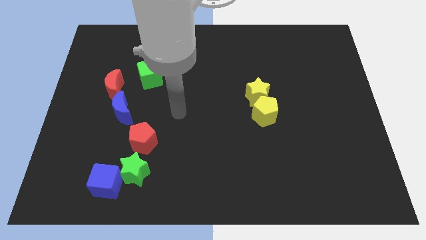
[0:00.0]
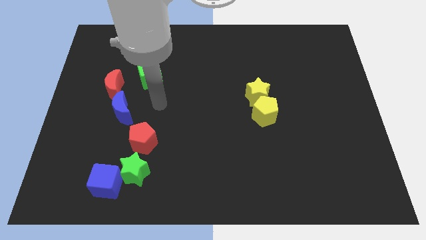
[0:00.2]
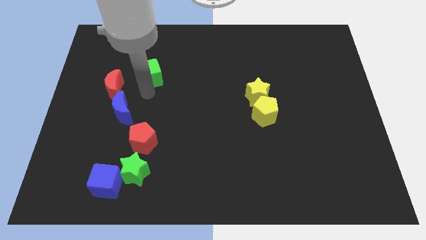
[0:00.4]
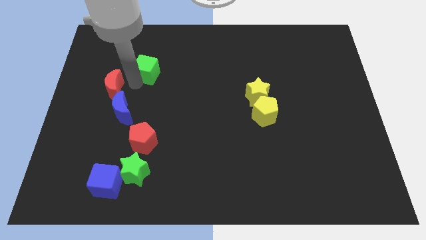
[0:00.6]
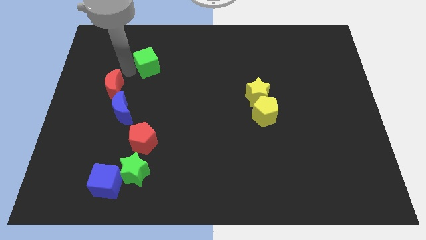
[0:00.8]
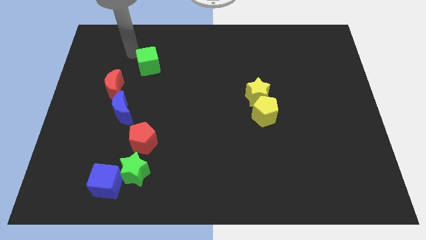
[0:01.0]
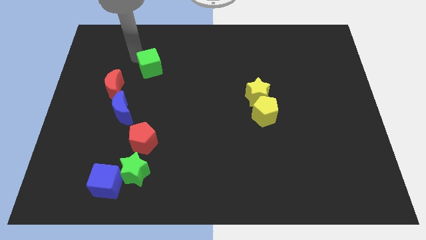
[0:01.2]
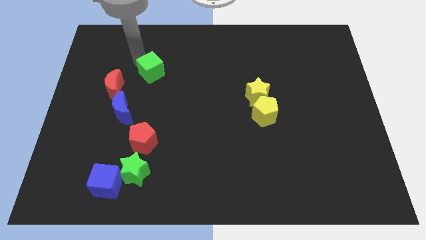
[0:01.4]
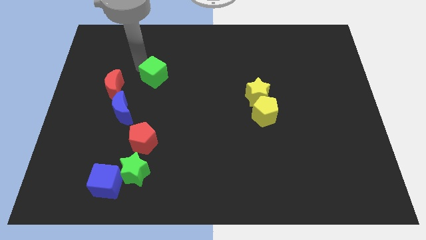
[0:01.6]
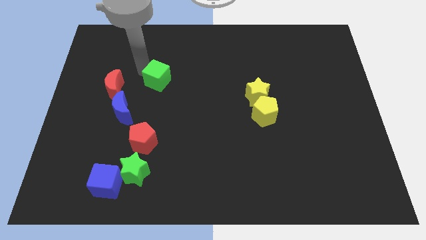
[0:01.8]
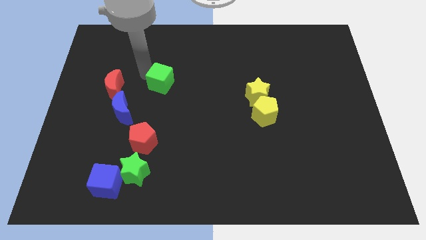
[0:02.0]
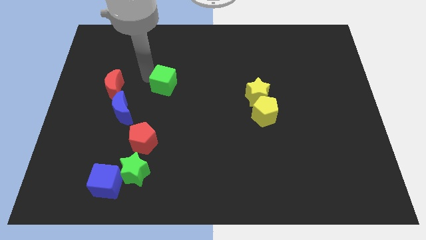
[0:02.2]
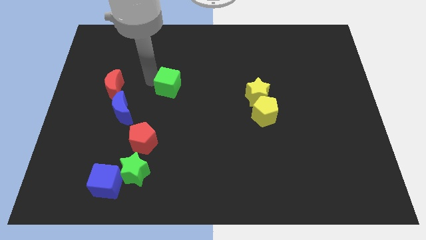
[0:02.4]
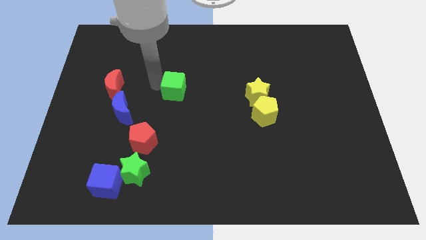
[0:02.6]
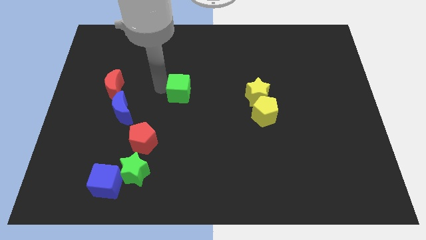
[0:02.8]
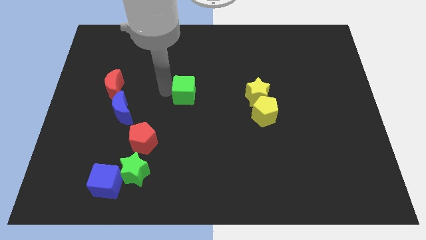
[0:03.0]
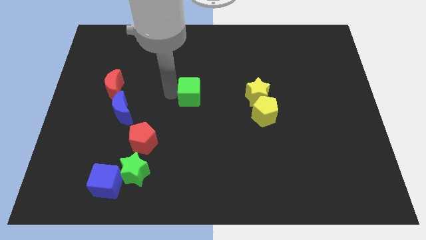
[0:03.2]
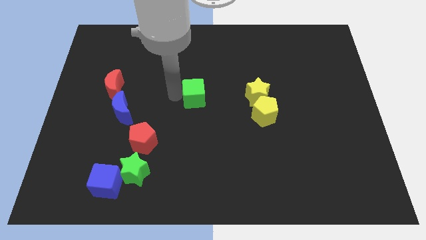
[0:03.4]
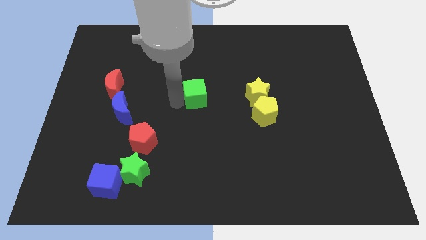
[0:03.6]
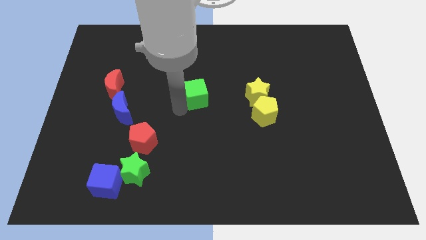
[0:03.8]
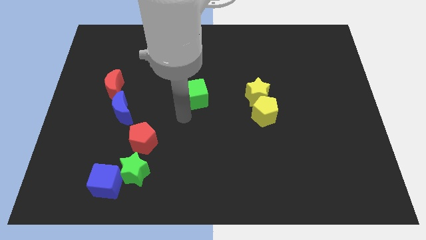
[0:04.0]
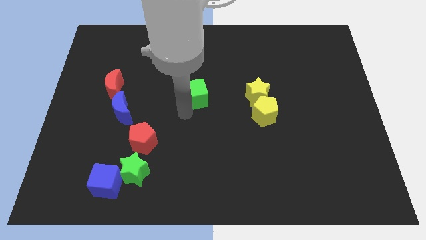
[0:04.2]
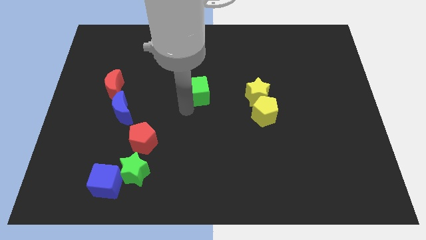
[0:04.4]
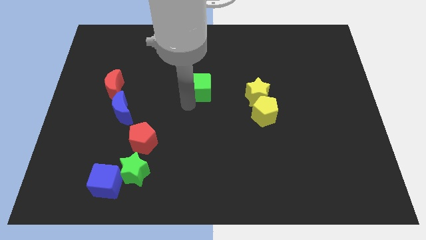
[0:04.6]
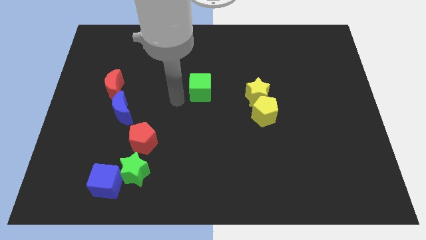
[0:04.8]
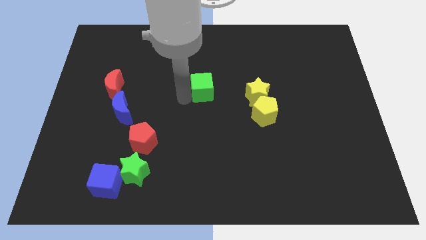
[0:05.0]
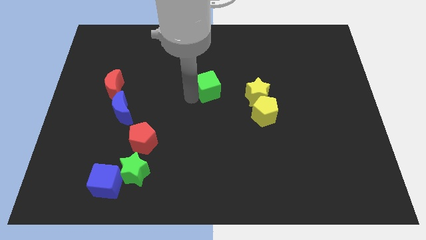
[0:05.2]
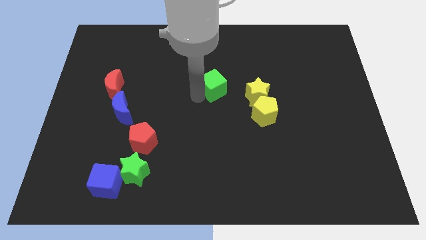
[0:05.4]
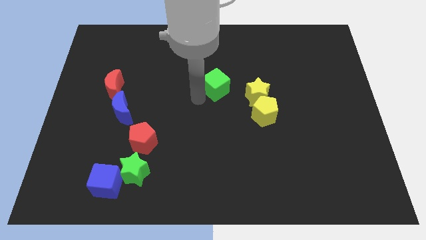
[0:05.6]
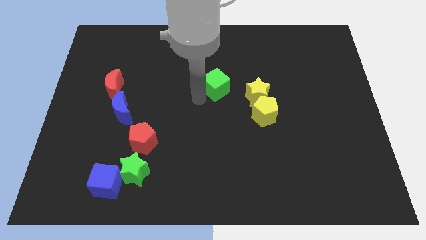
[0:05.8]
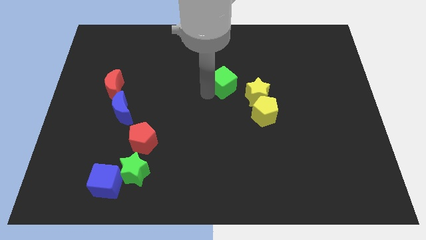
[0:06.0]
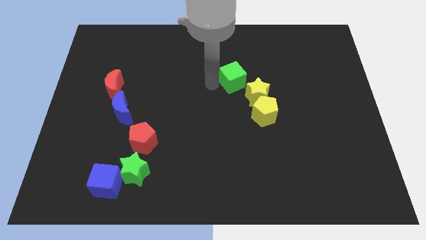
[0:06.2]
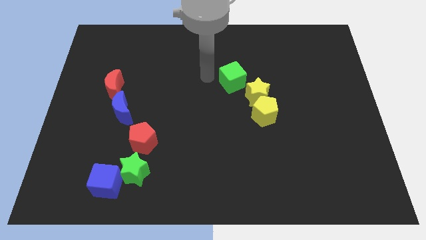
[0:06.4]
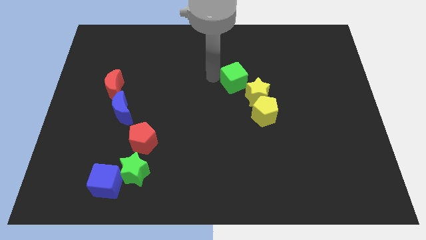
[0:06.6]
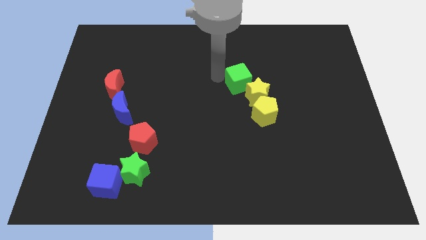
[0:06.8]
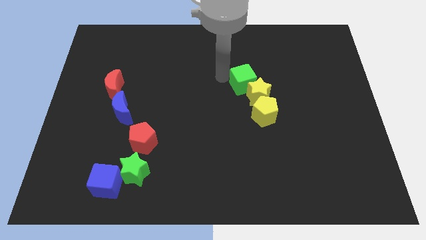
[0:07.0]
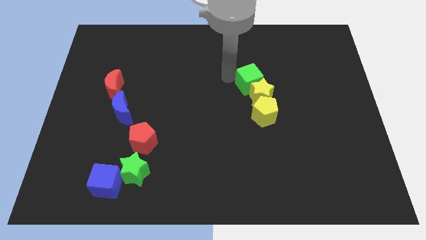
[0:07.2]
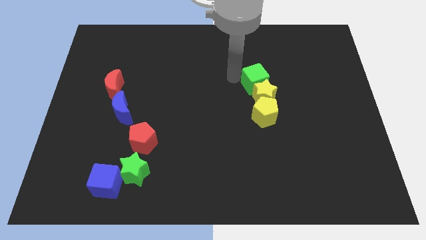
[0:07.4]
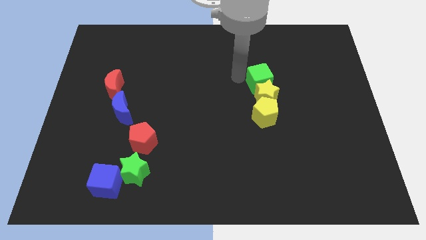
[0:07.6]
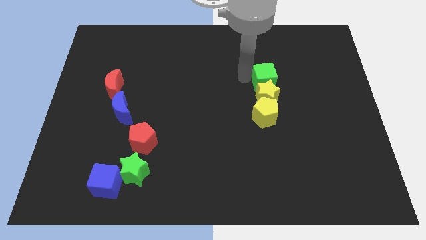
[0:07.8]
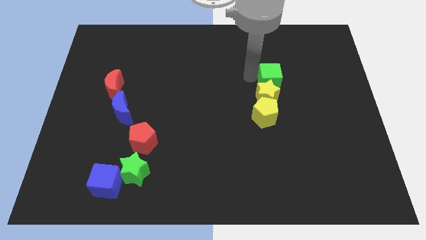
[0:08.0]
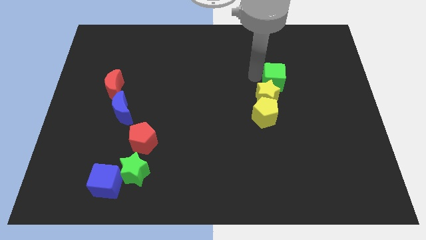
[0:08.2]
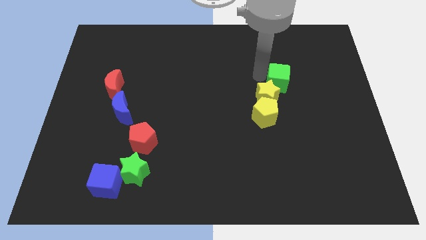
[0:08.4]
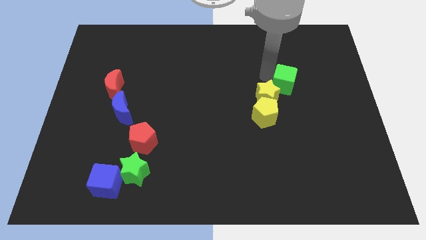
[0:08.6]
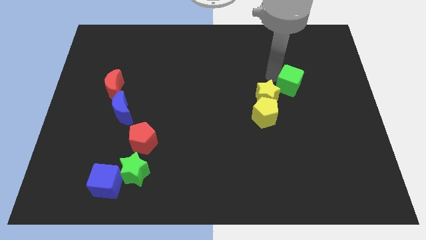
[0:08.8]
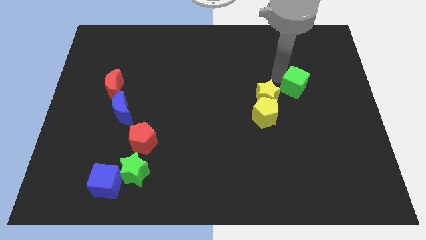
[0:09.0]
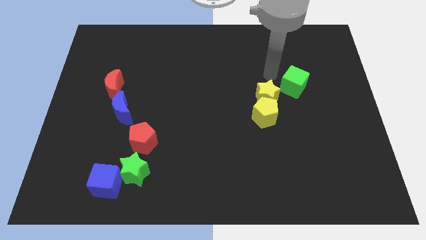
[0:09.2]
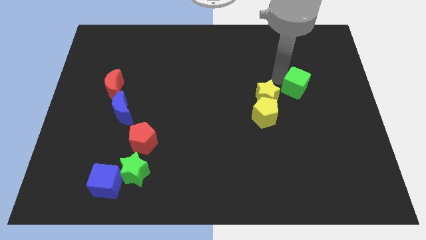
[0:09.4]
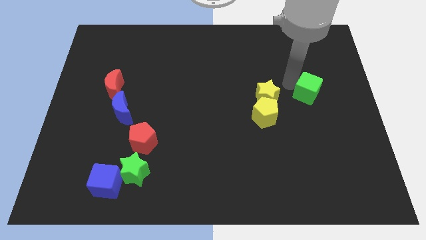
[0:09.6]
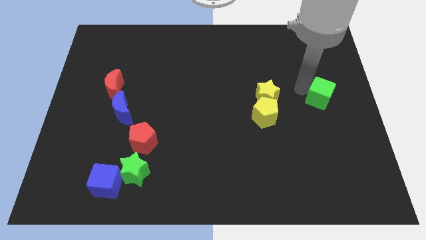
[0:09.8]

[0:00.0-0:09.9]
move the green cube to the right side of the board

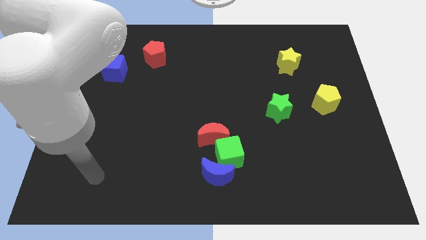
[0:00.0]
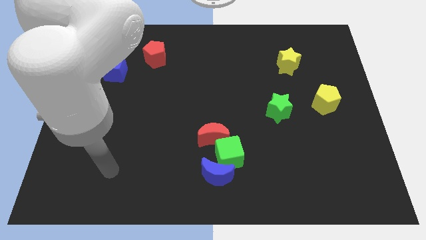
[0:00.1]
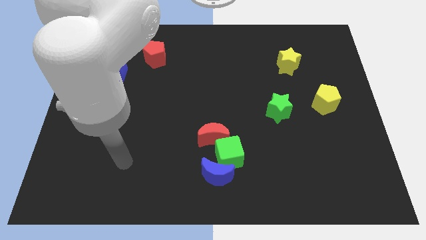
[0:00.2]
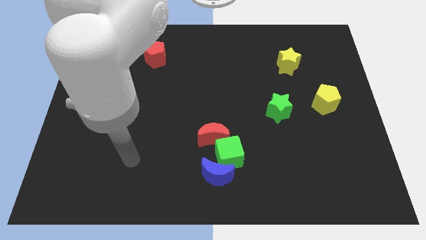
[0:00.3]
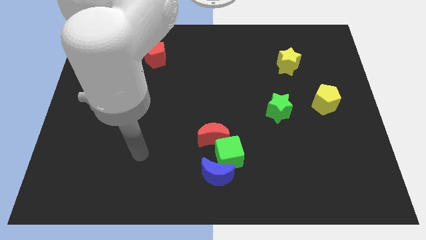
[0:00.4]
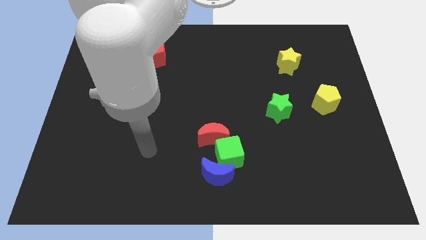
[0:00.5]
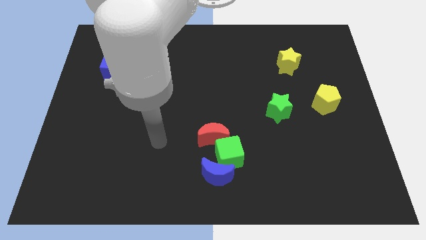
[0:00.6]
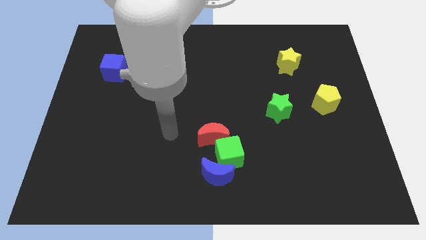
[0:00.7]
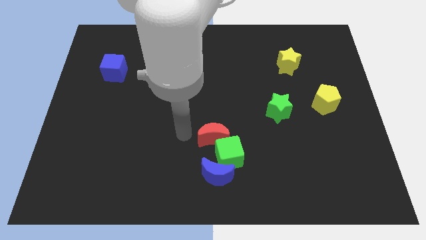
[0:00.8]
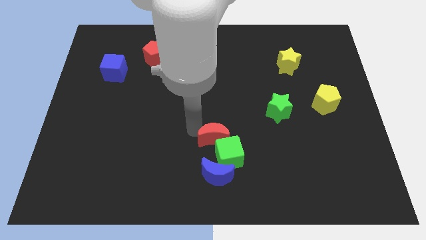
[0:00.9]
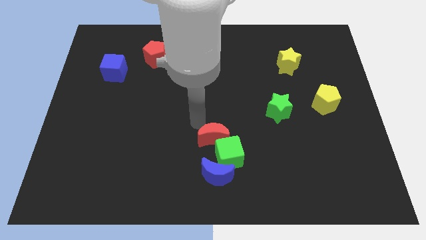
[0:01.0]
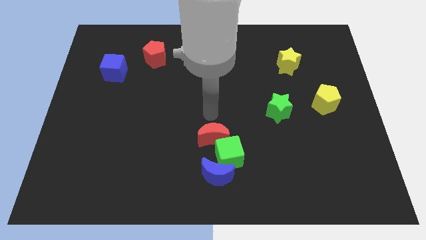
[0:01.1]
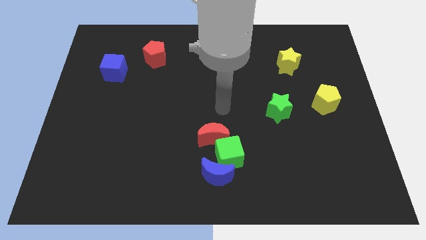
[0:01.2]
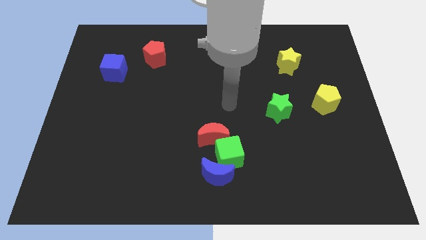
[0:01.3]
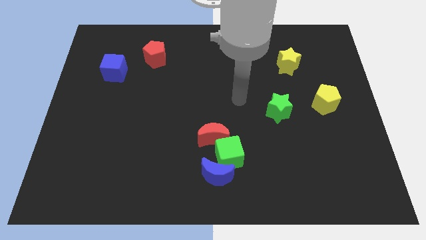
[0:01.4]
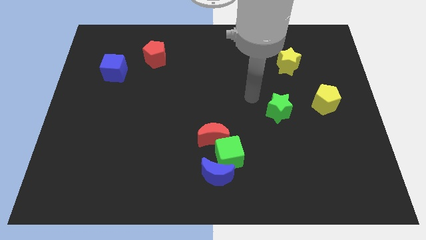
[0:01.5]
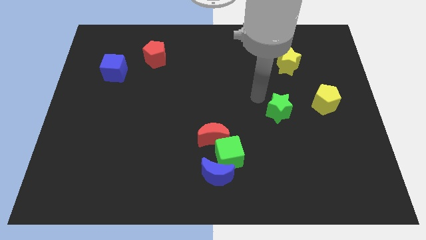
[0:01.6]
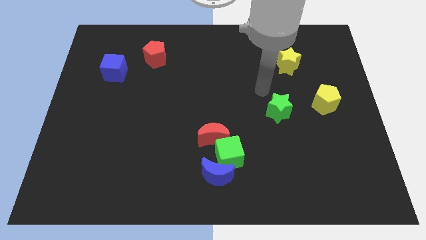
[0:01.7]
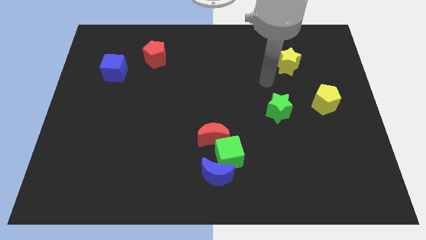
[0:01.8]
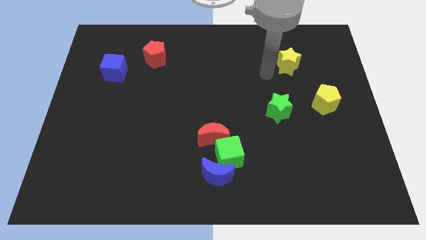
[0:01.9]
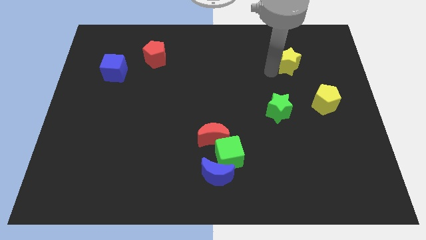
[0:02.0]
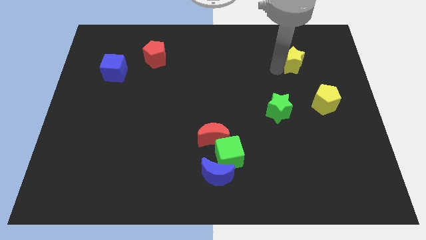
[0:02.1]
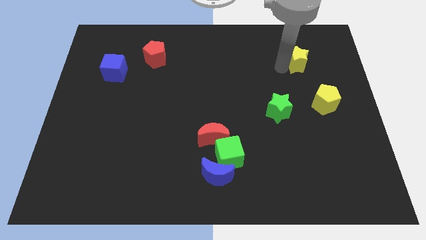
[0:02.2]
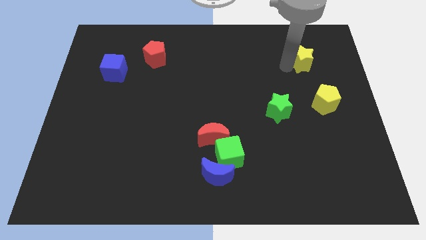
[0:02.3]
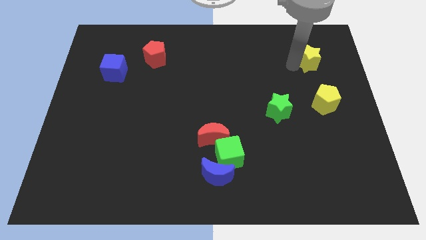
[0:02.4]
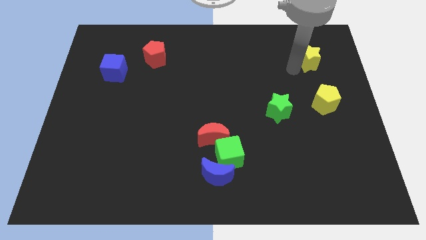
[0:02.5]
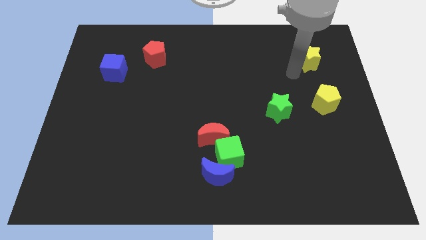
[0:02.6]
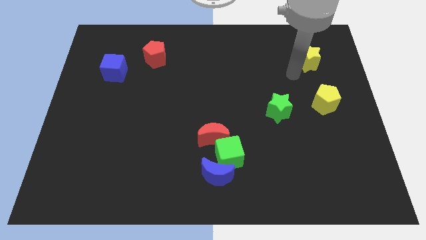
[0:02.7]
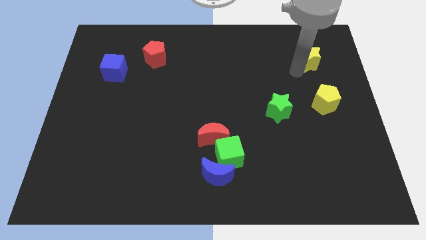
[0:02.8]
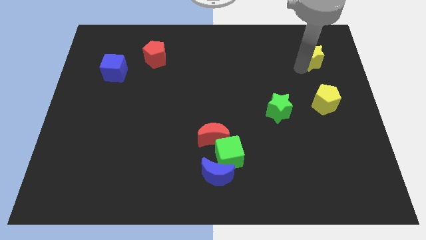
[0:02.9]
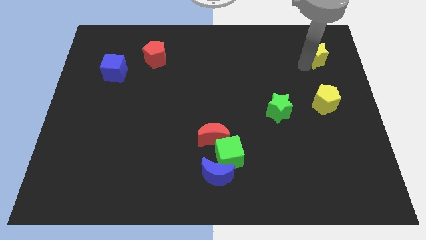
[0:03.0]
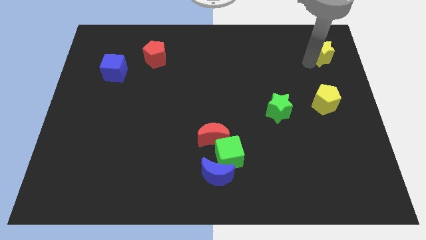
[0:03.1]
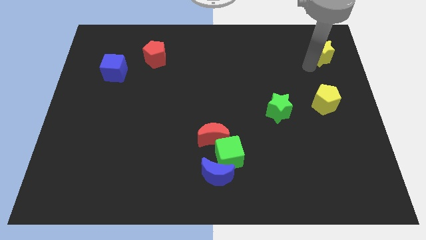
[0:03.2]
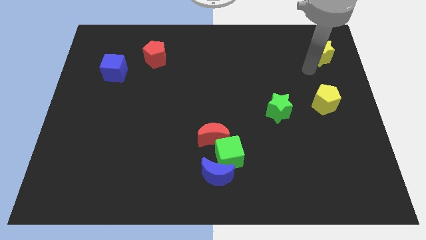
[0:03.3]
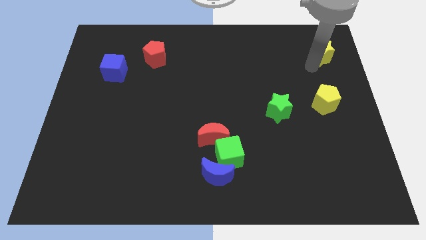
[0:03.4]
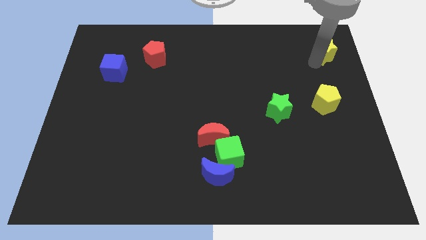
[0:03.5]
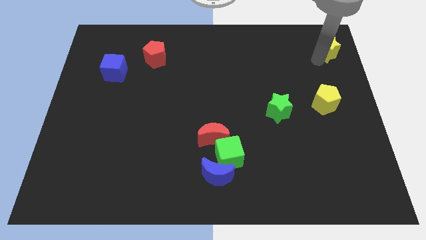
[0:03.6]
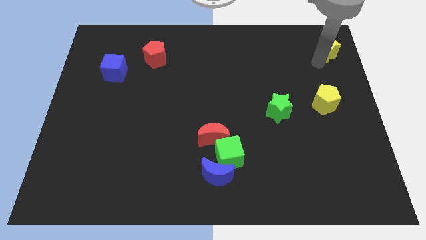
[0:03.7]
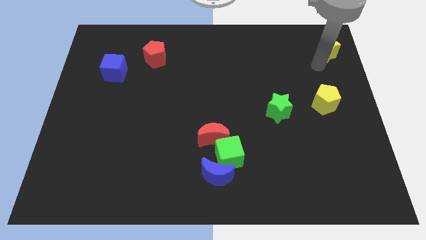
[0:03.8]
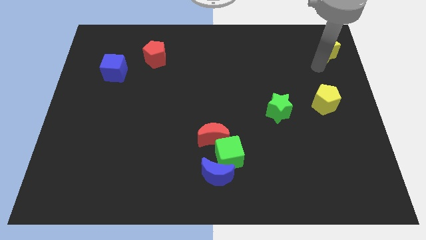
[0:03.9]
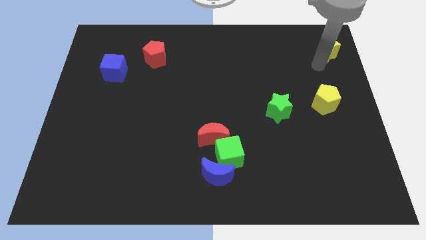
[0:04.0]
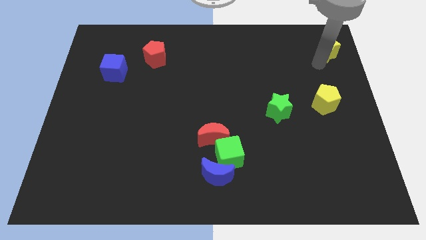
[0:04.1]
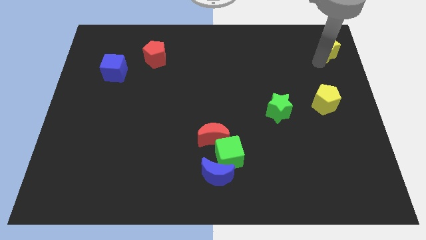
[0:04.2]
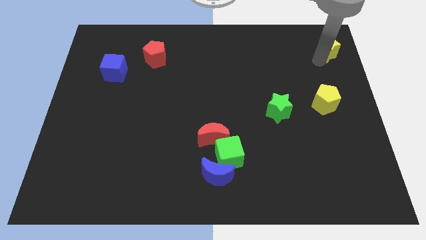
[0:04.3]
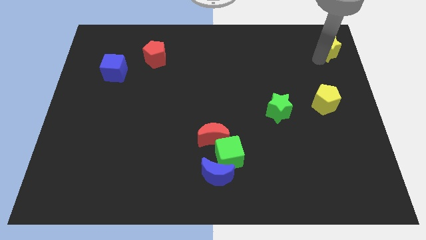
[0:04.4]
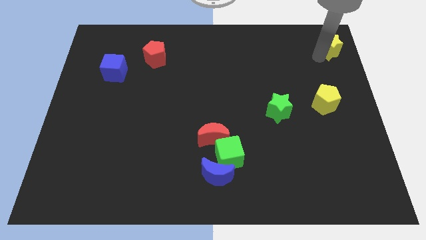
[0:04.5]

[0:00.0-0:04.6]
push the yellow star to the top right
